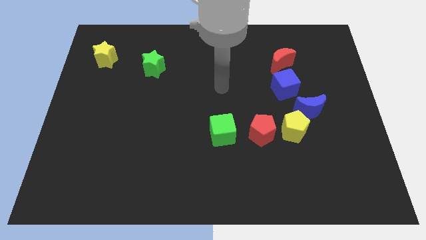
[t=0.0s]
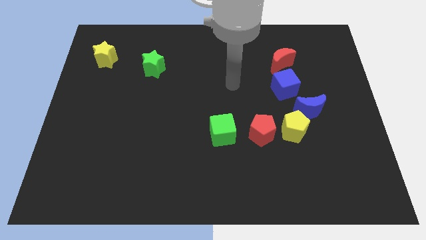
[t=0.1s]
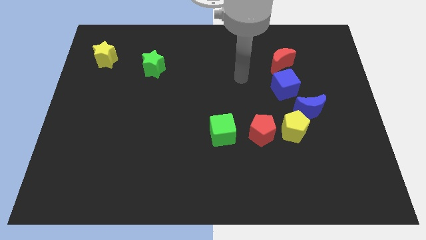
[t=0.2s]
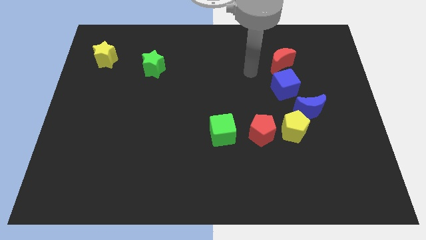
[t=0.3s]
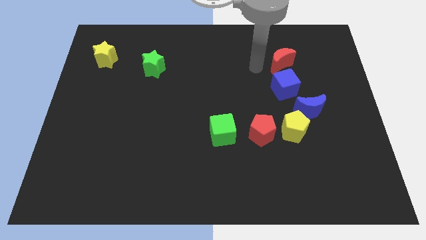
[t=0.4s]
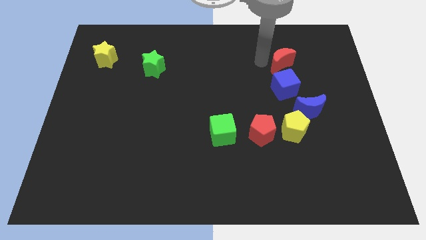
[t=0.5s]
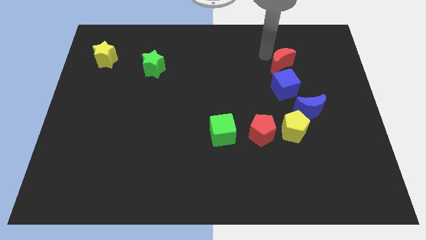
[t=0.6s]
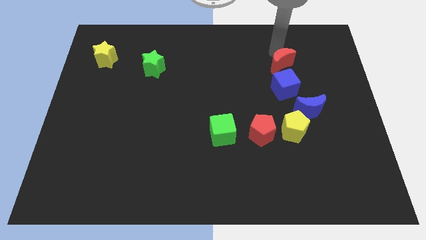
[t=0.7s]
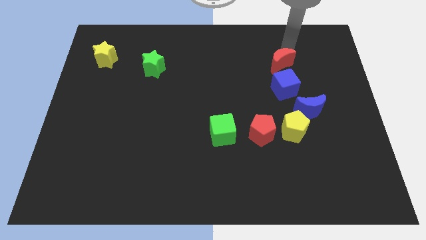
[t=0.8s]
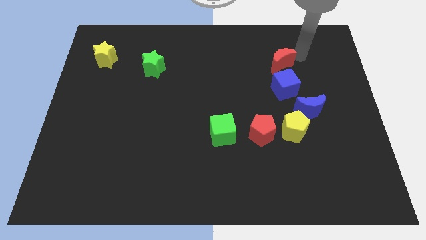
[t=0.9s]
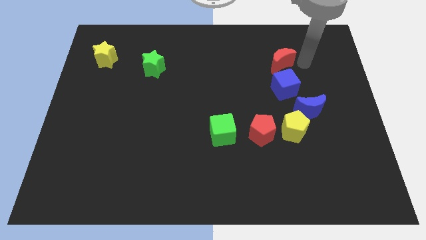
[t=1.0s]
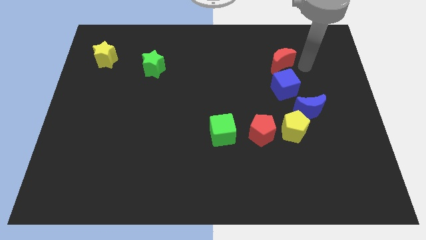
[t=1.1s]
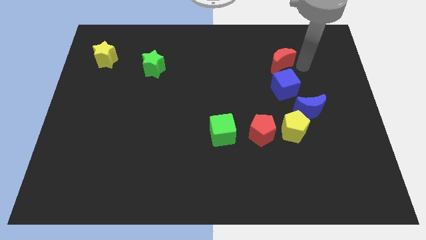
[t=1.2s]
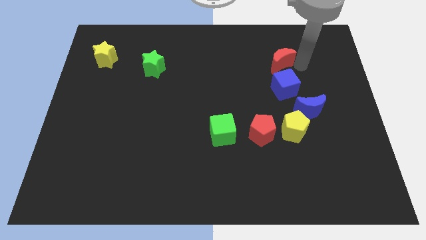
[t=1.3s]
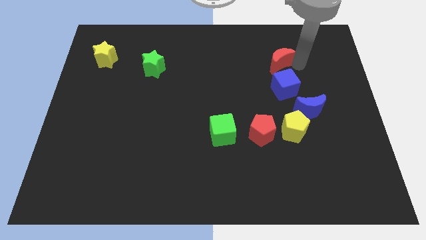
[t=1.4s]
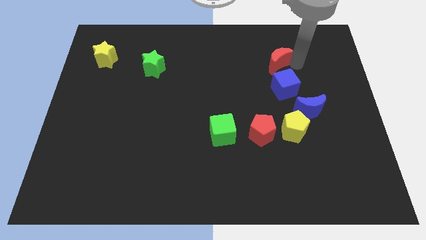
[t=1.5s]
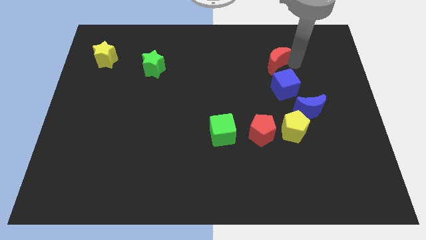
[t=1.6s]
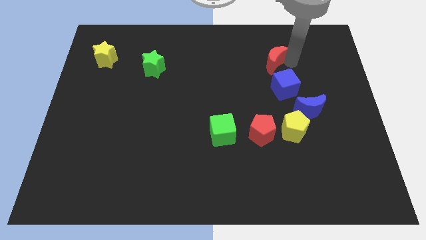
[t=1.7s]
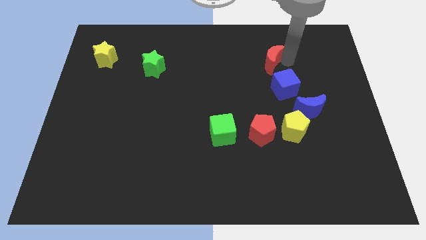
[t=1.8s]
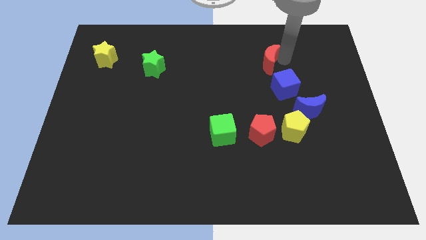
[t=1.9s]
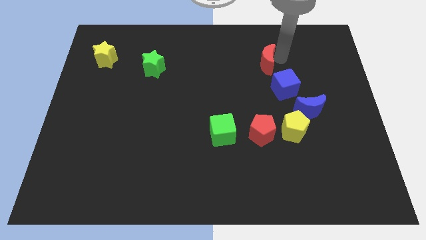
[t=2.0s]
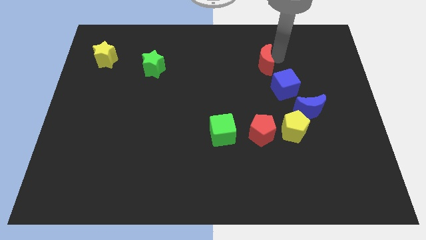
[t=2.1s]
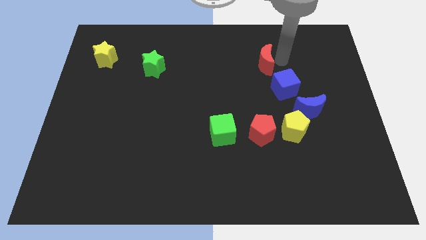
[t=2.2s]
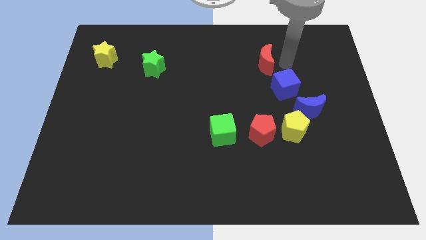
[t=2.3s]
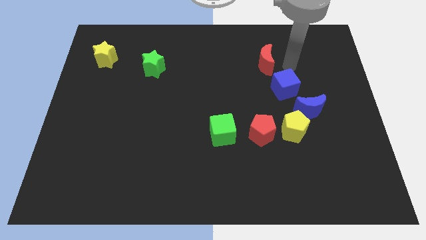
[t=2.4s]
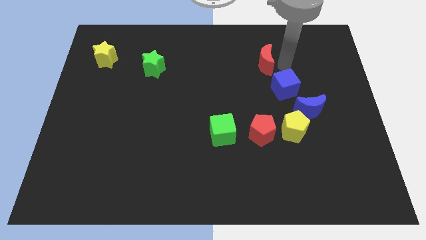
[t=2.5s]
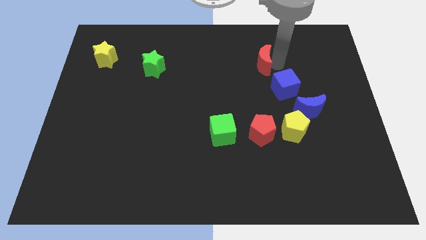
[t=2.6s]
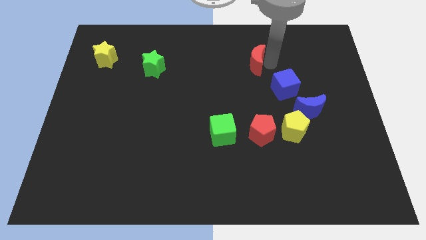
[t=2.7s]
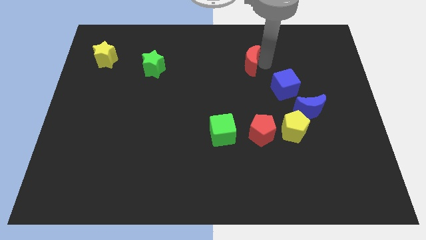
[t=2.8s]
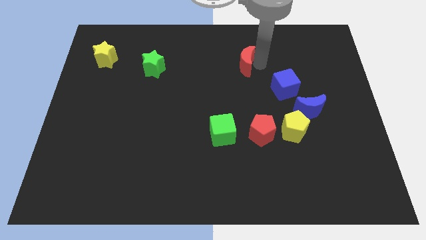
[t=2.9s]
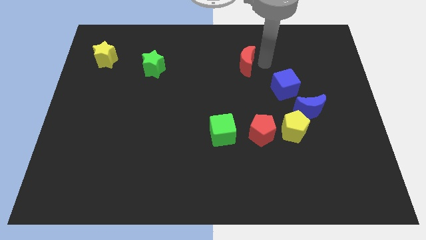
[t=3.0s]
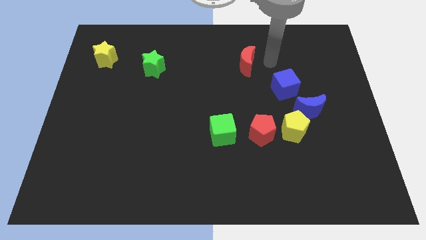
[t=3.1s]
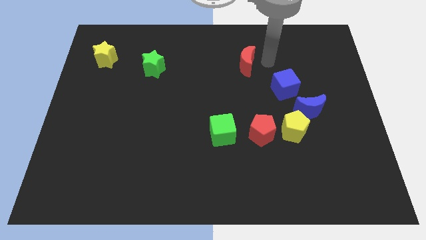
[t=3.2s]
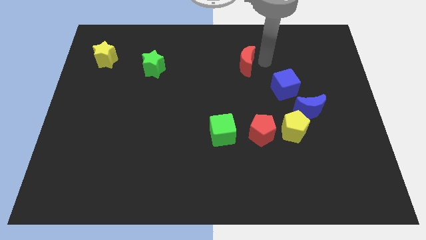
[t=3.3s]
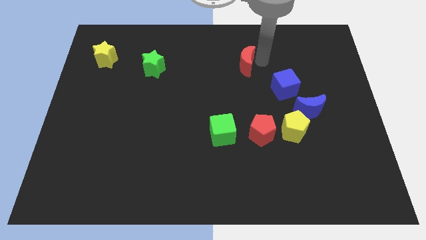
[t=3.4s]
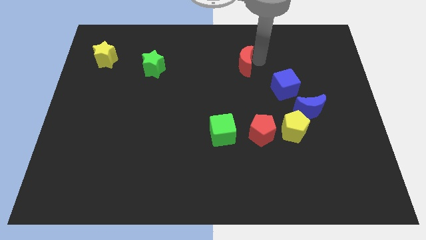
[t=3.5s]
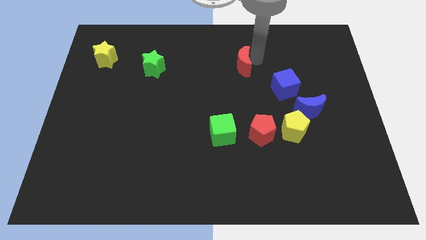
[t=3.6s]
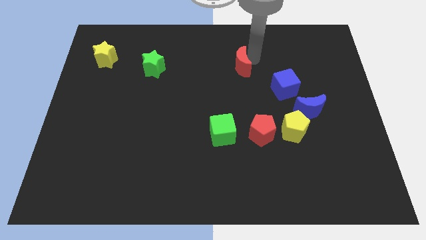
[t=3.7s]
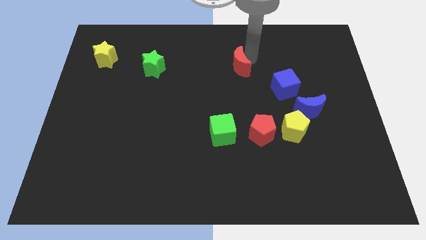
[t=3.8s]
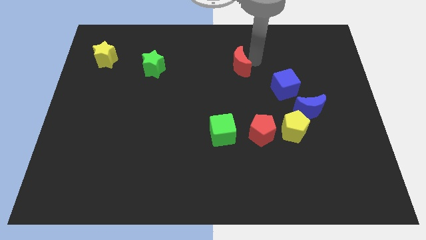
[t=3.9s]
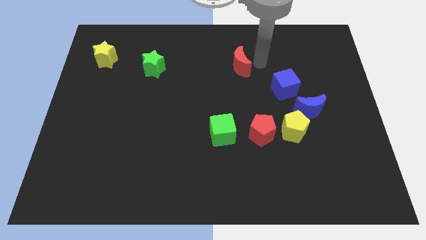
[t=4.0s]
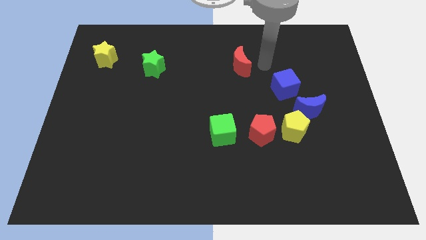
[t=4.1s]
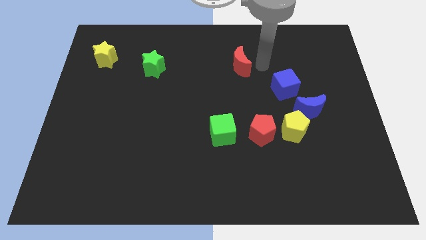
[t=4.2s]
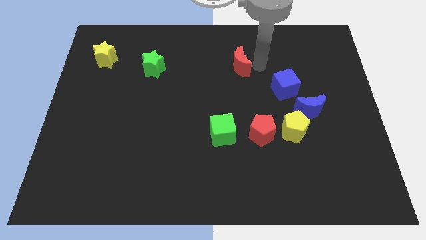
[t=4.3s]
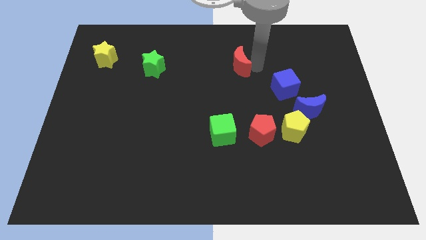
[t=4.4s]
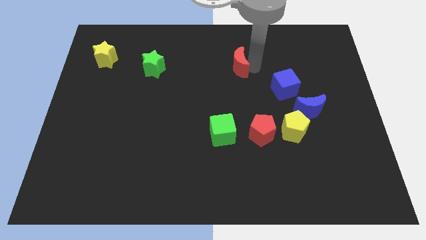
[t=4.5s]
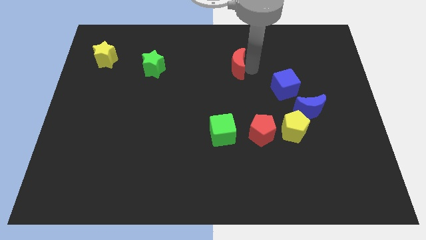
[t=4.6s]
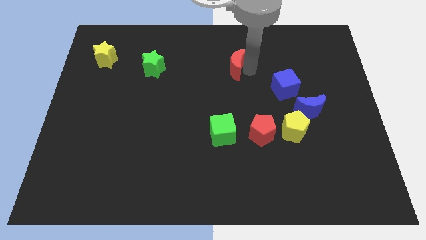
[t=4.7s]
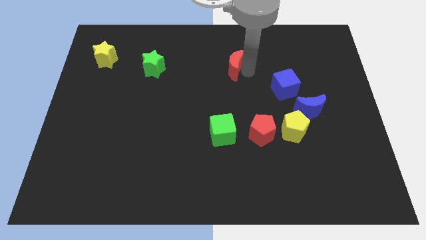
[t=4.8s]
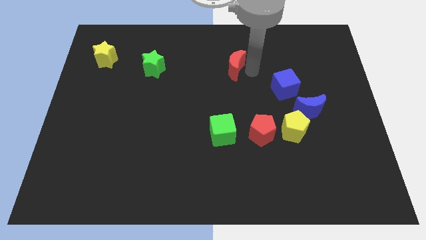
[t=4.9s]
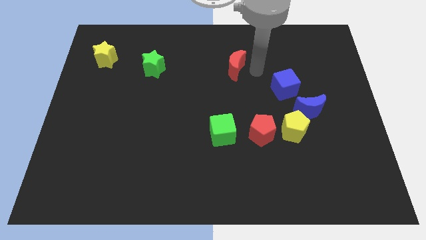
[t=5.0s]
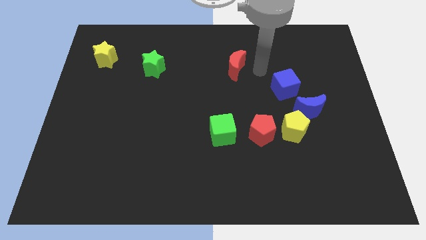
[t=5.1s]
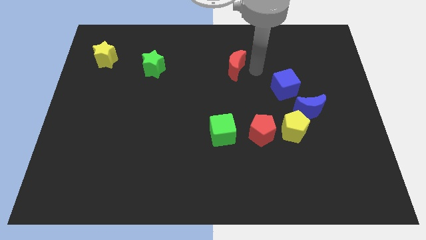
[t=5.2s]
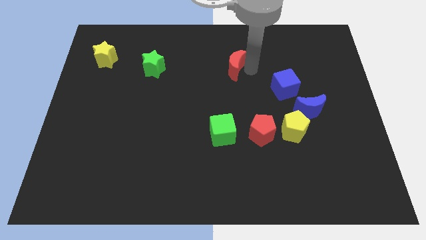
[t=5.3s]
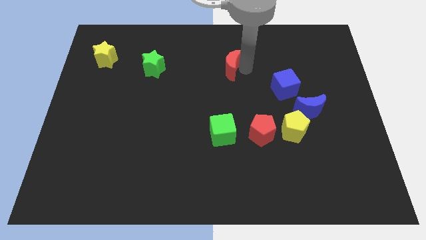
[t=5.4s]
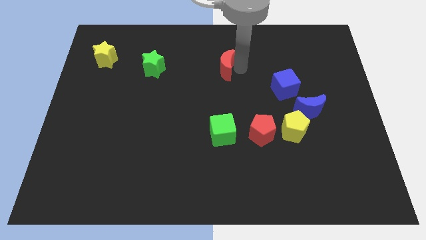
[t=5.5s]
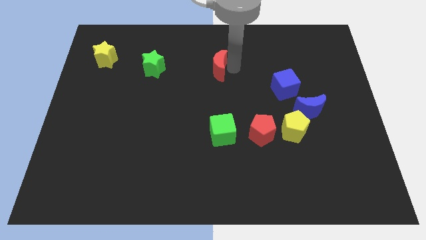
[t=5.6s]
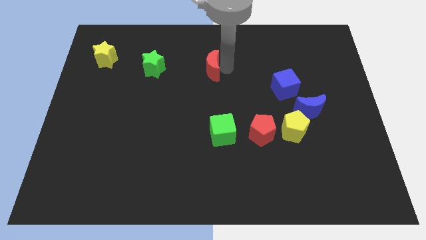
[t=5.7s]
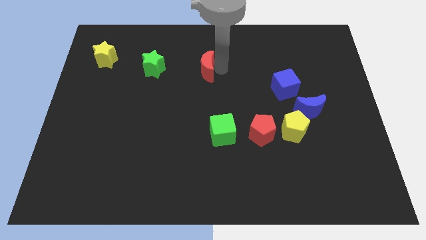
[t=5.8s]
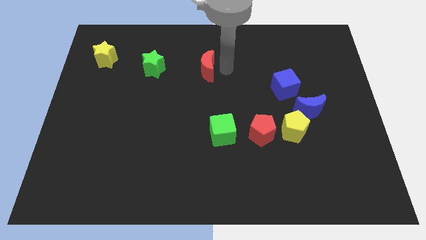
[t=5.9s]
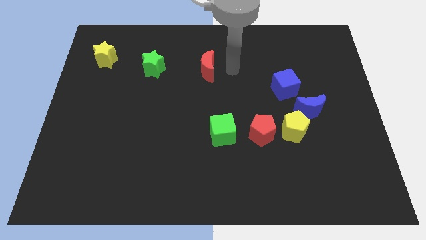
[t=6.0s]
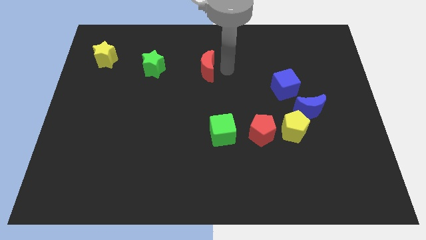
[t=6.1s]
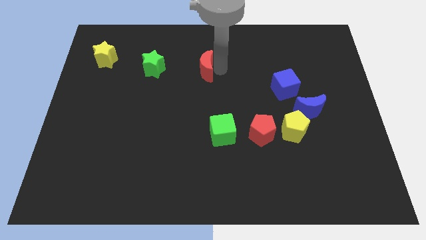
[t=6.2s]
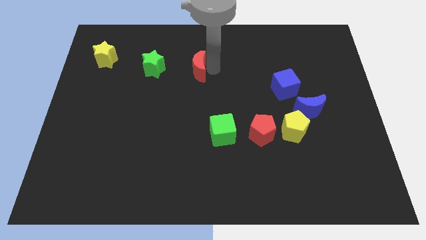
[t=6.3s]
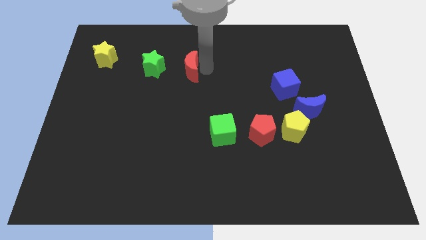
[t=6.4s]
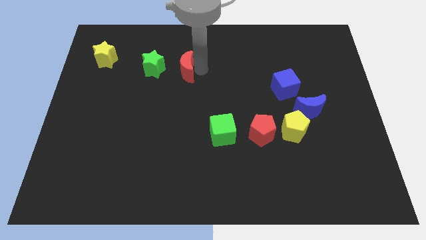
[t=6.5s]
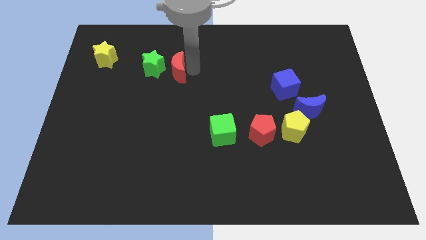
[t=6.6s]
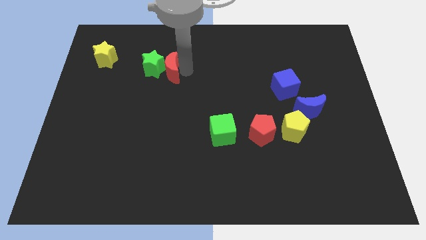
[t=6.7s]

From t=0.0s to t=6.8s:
push the red moon next to the green star
